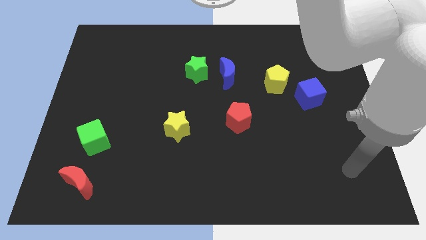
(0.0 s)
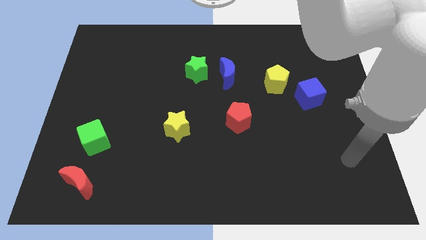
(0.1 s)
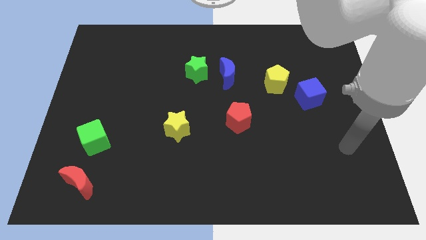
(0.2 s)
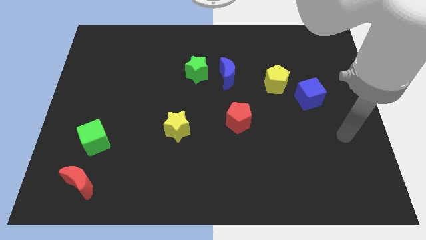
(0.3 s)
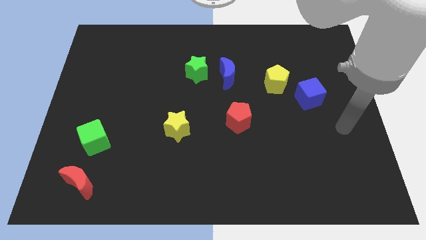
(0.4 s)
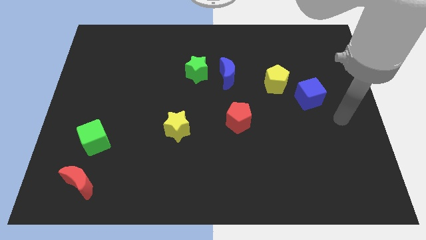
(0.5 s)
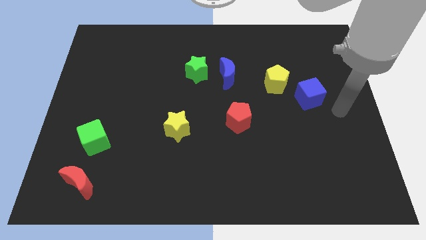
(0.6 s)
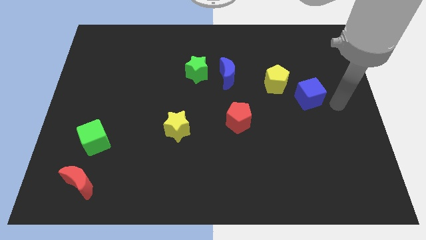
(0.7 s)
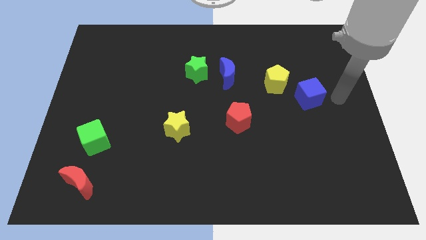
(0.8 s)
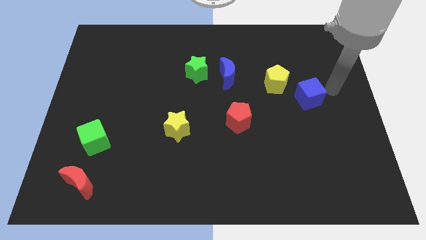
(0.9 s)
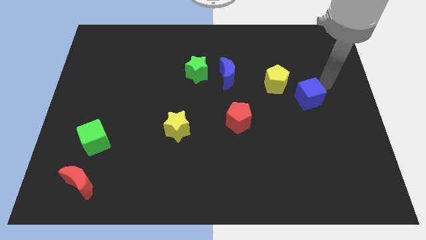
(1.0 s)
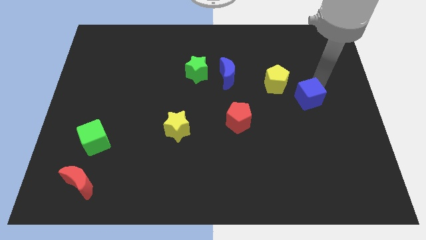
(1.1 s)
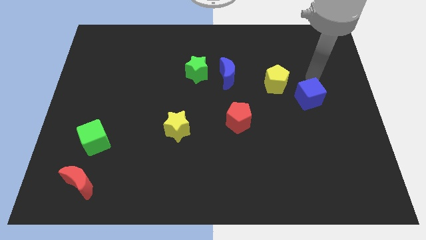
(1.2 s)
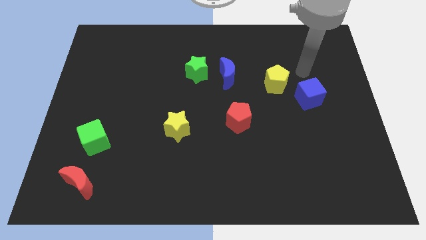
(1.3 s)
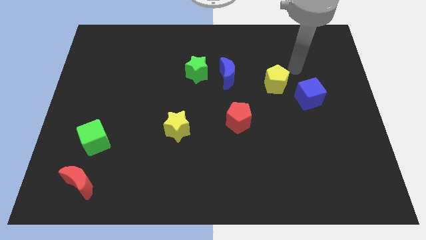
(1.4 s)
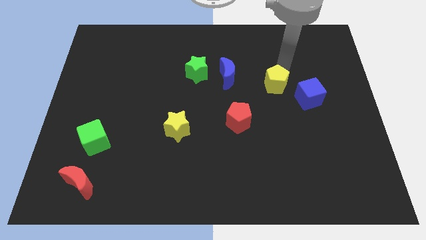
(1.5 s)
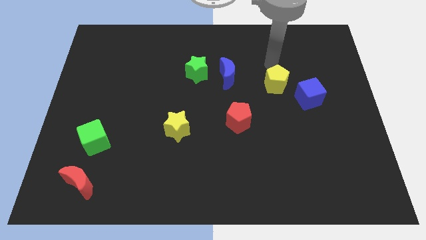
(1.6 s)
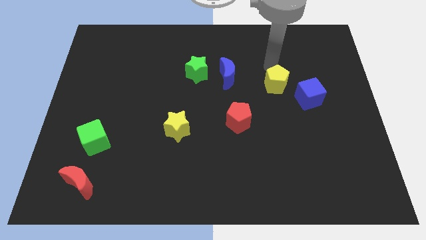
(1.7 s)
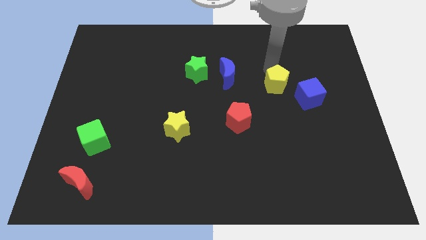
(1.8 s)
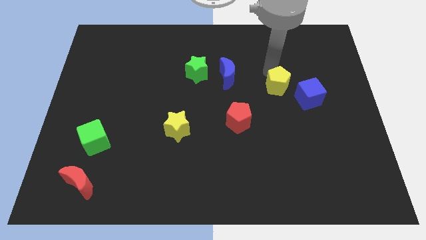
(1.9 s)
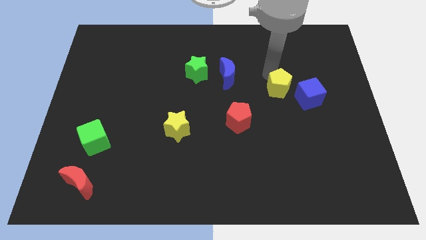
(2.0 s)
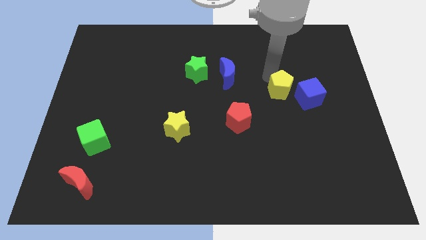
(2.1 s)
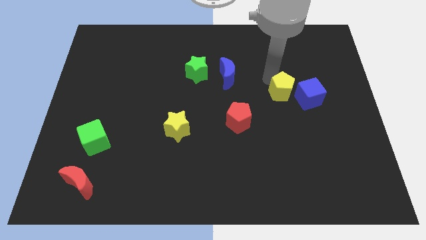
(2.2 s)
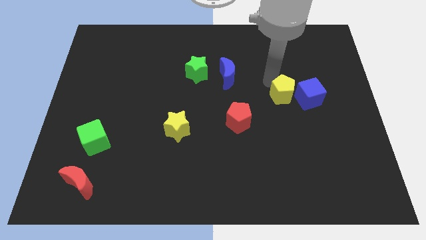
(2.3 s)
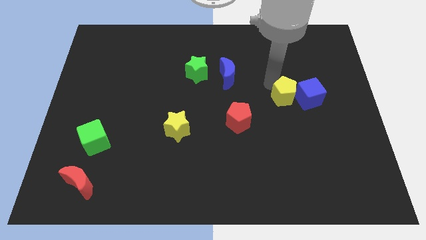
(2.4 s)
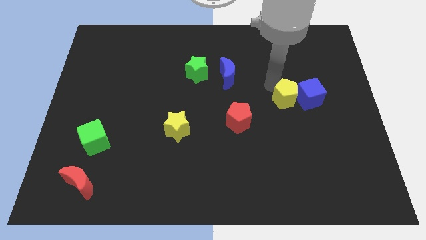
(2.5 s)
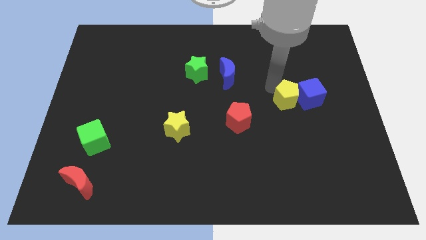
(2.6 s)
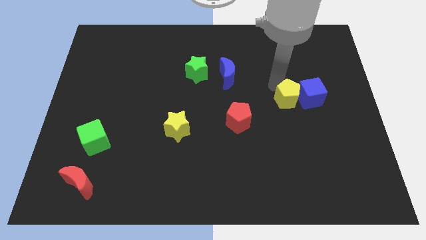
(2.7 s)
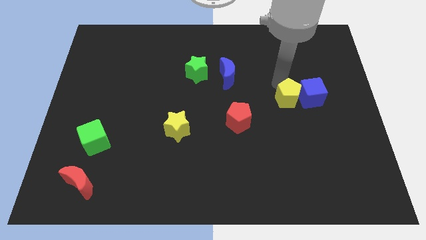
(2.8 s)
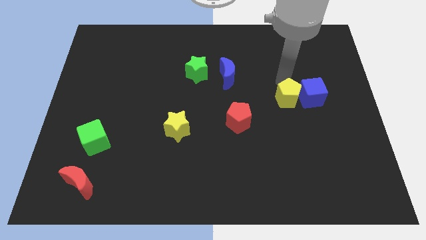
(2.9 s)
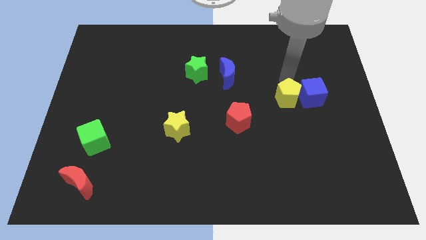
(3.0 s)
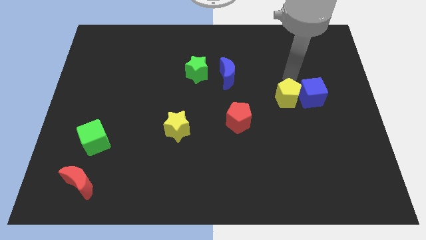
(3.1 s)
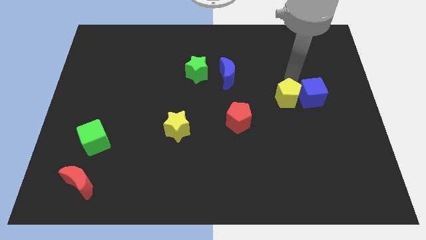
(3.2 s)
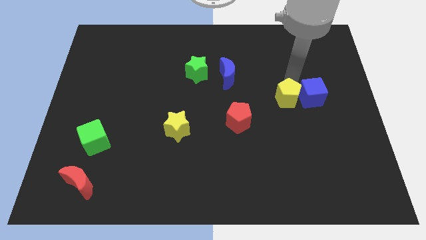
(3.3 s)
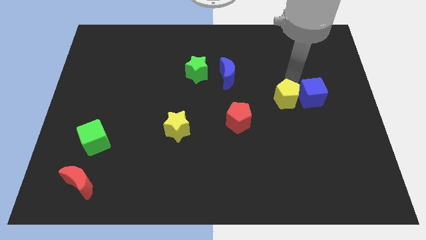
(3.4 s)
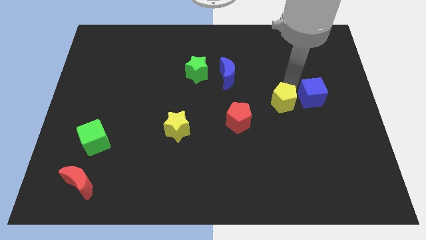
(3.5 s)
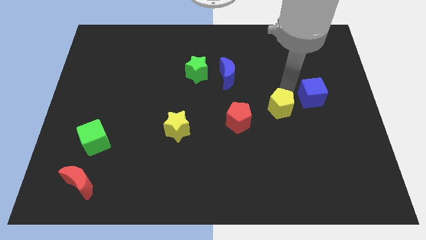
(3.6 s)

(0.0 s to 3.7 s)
push the yellow pentagon a bit downwards

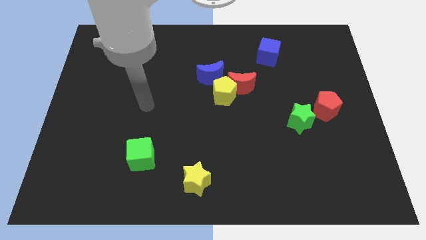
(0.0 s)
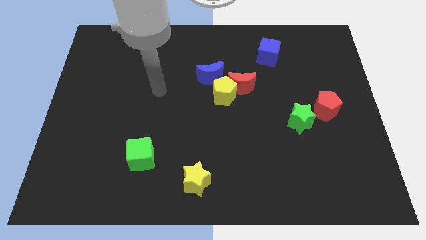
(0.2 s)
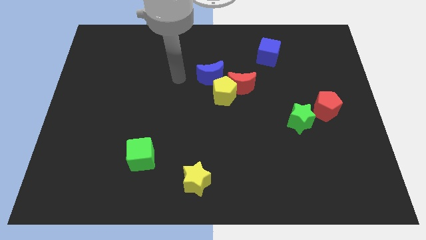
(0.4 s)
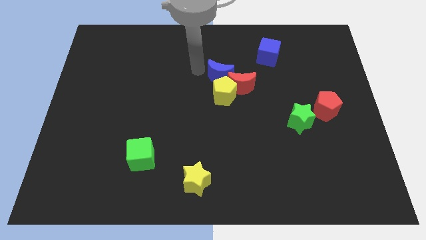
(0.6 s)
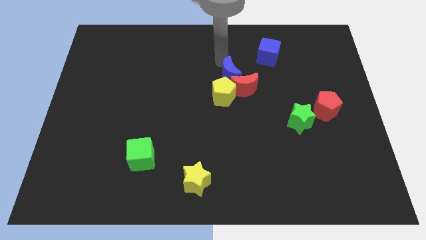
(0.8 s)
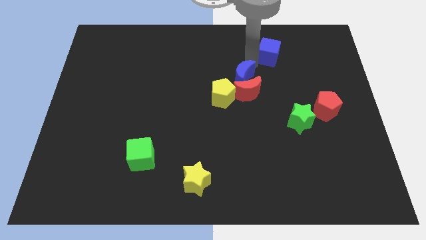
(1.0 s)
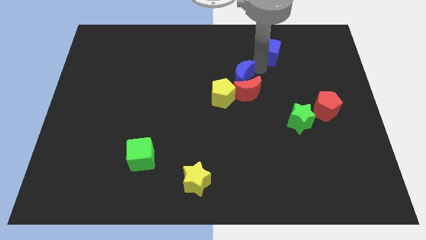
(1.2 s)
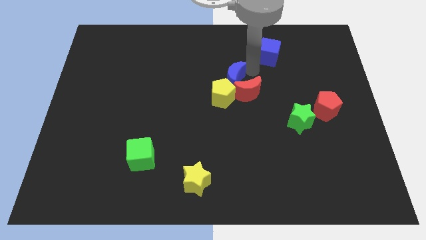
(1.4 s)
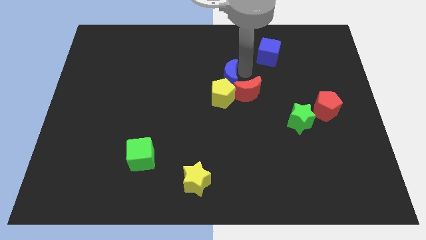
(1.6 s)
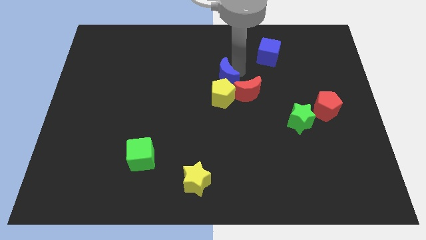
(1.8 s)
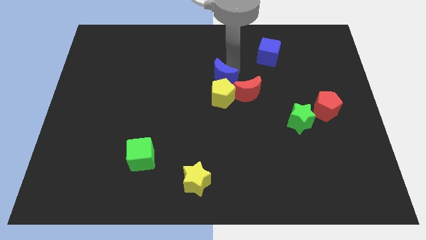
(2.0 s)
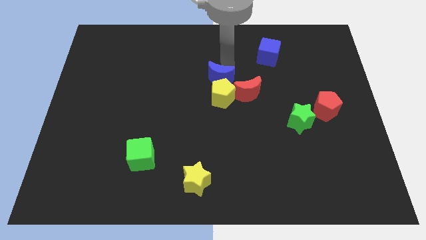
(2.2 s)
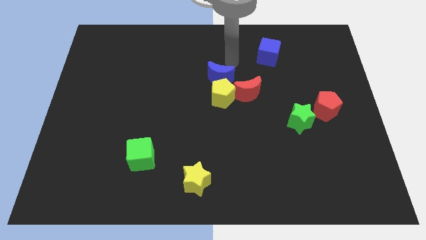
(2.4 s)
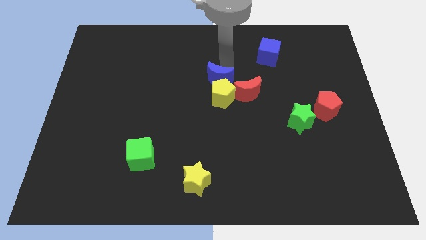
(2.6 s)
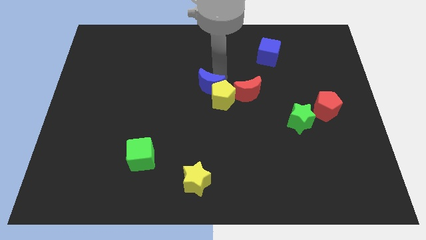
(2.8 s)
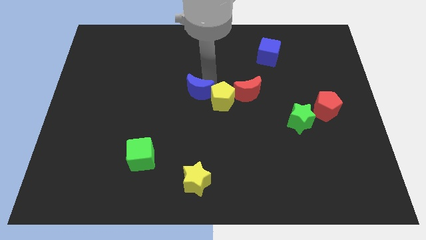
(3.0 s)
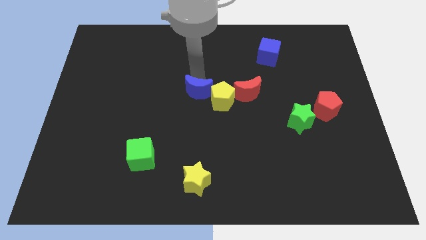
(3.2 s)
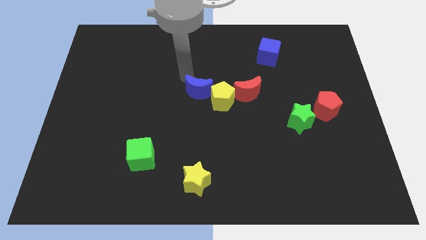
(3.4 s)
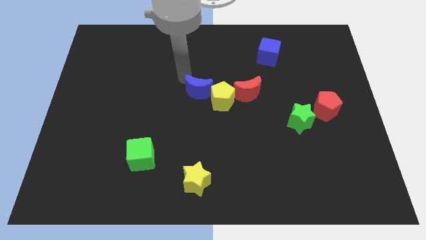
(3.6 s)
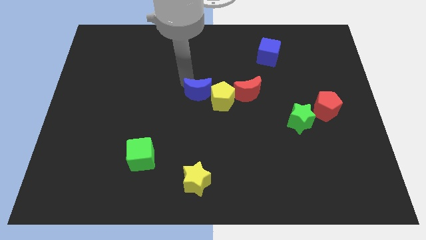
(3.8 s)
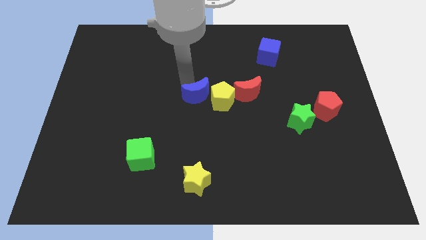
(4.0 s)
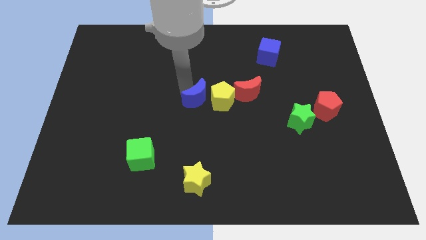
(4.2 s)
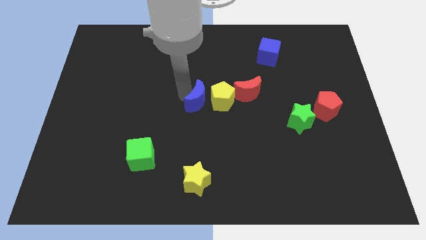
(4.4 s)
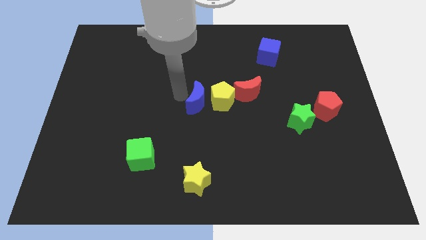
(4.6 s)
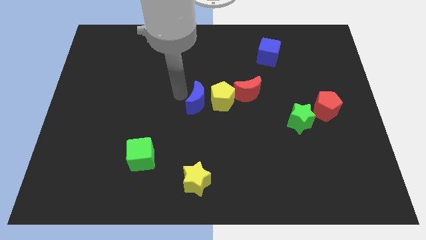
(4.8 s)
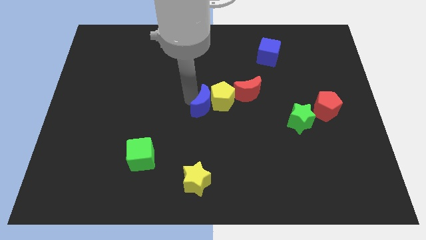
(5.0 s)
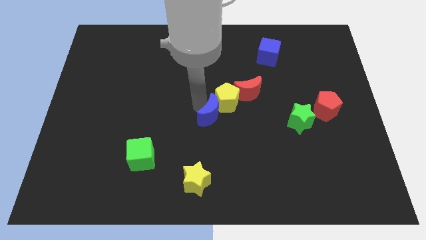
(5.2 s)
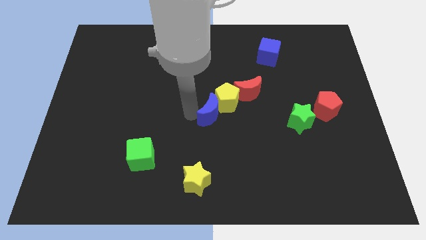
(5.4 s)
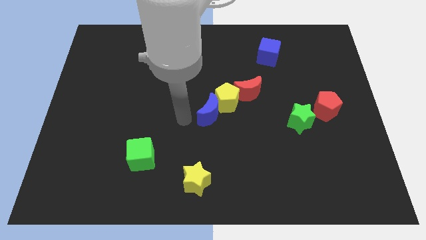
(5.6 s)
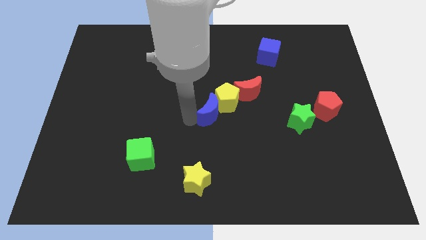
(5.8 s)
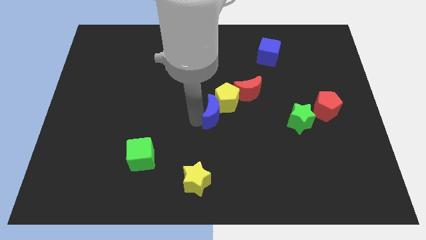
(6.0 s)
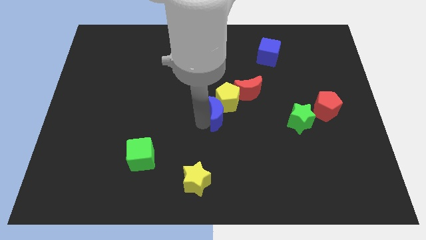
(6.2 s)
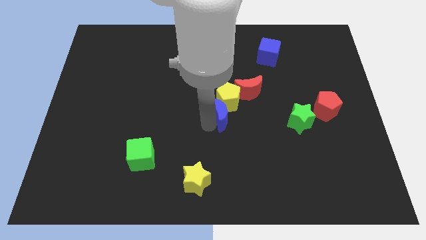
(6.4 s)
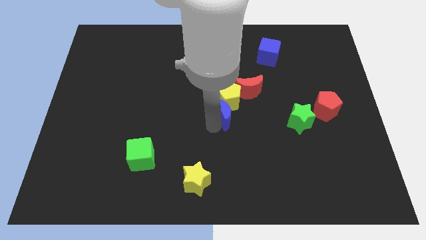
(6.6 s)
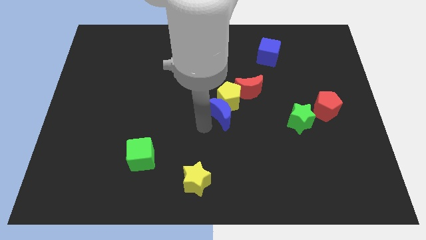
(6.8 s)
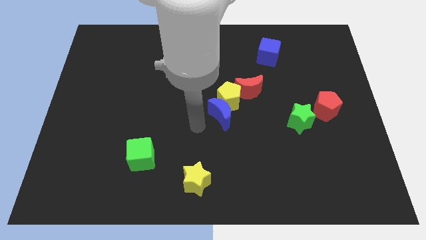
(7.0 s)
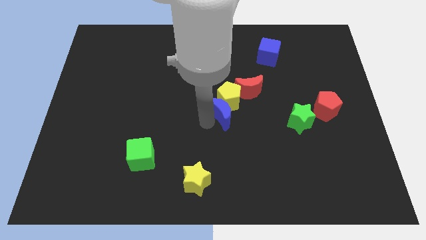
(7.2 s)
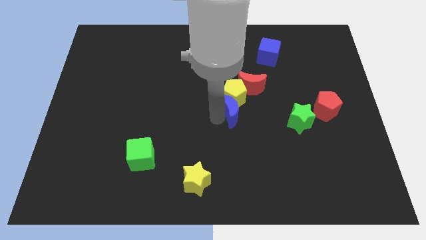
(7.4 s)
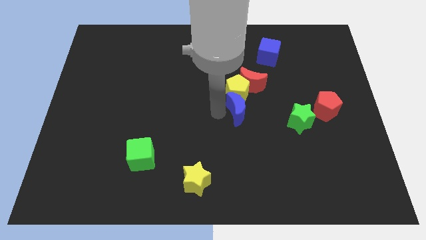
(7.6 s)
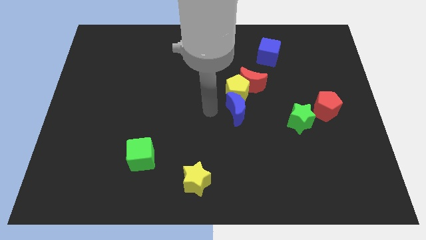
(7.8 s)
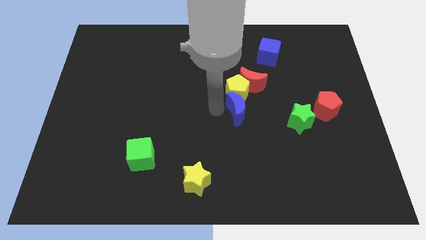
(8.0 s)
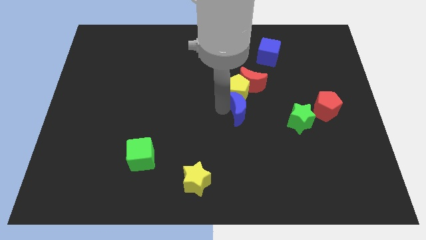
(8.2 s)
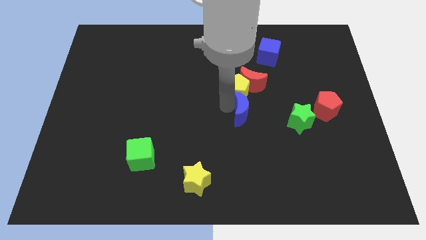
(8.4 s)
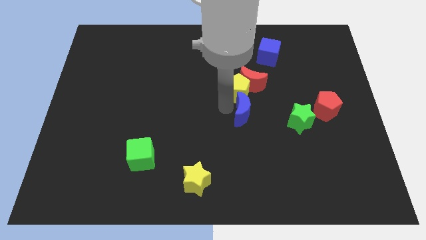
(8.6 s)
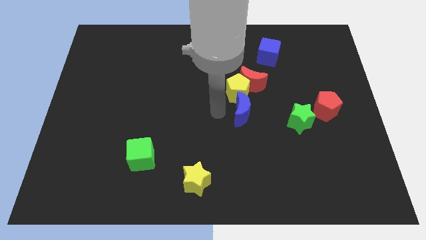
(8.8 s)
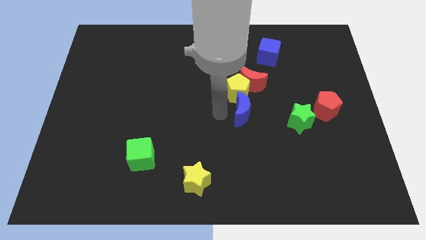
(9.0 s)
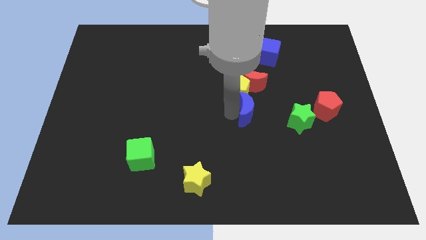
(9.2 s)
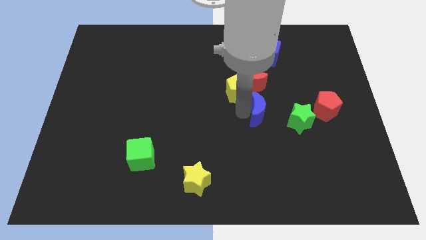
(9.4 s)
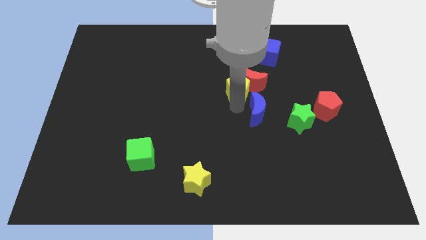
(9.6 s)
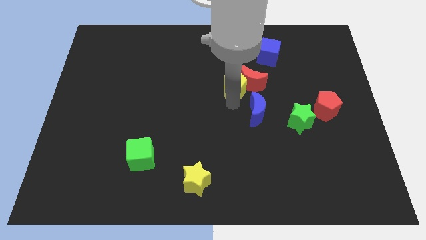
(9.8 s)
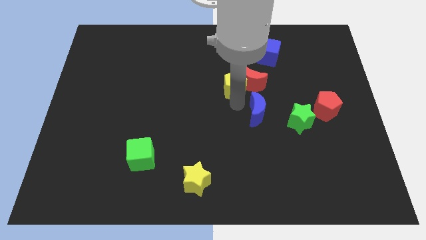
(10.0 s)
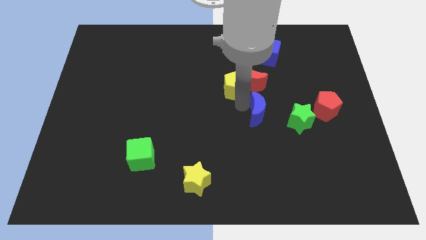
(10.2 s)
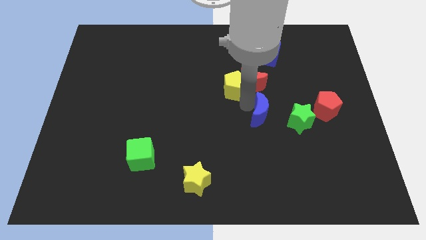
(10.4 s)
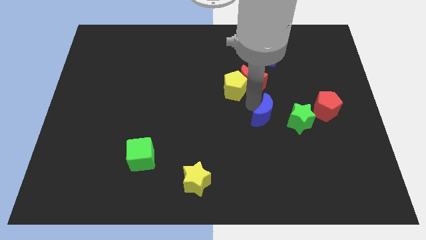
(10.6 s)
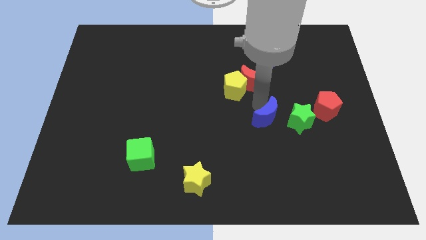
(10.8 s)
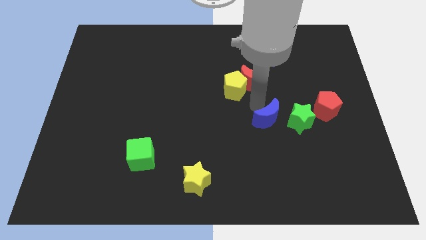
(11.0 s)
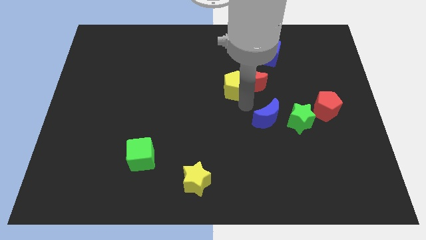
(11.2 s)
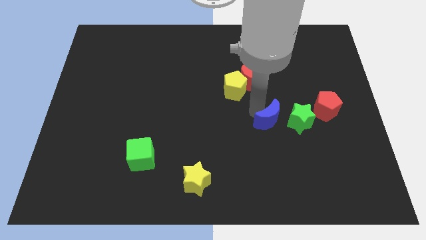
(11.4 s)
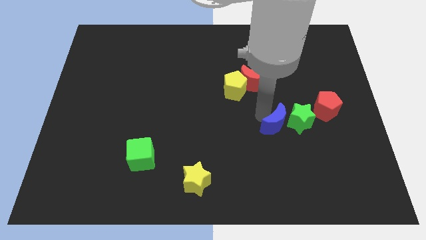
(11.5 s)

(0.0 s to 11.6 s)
push the blue moon downwards and to the right
